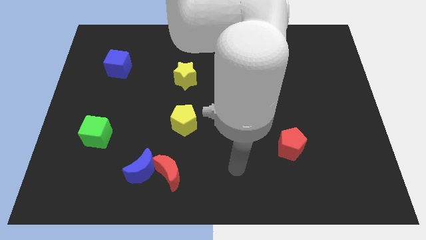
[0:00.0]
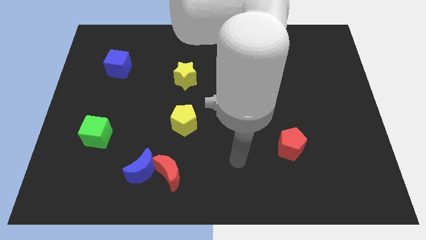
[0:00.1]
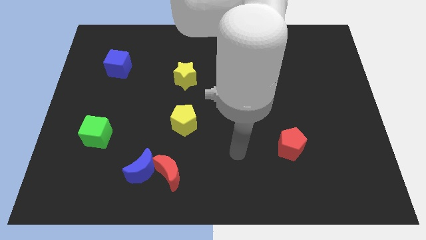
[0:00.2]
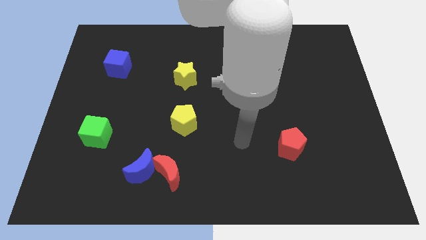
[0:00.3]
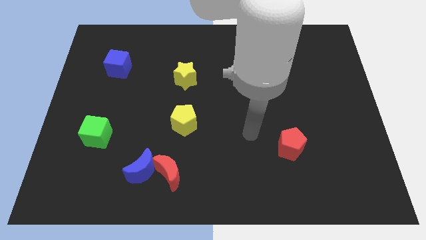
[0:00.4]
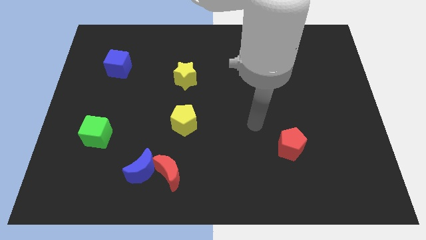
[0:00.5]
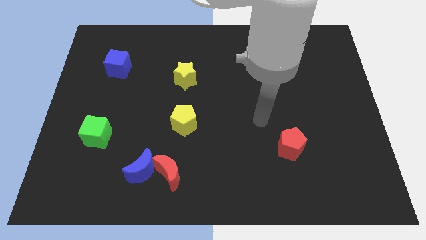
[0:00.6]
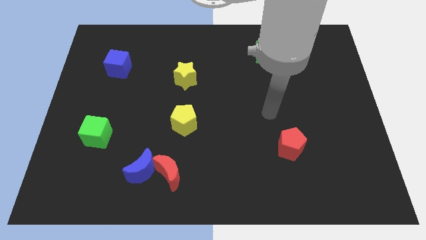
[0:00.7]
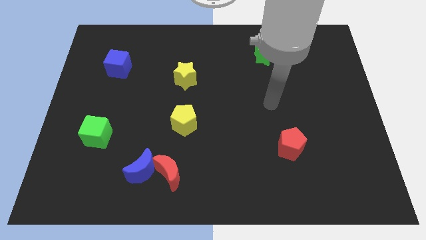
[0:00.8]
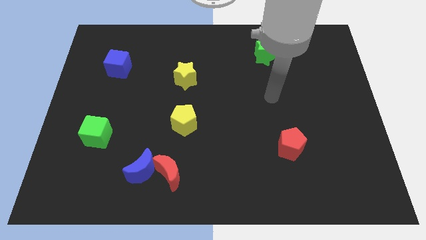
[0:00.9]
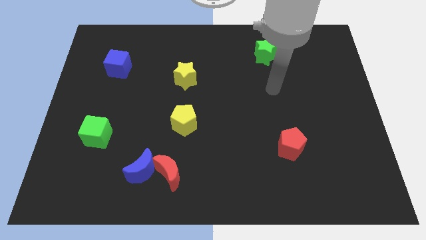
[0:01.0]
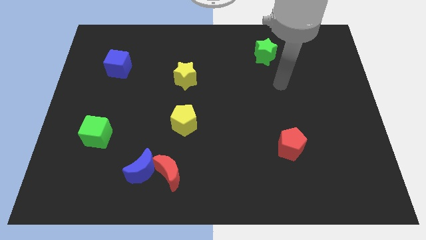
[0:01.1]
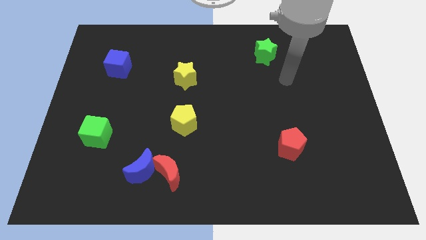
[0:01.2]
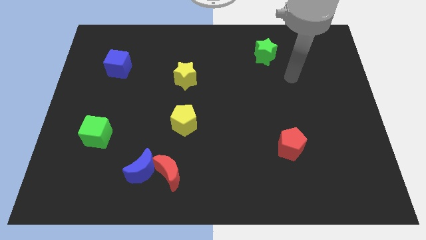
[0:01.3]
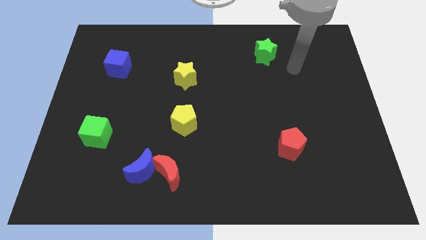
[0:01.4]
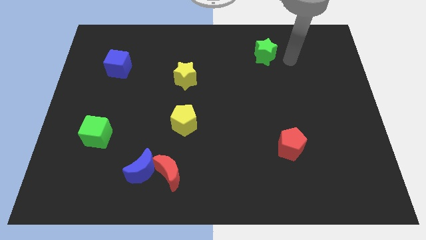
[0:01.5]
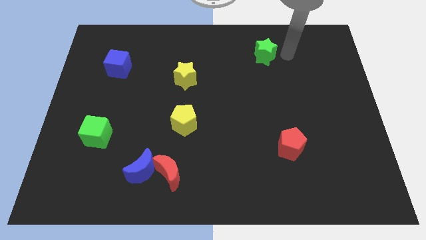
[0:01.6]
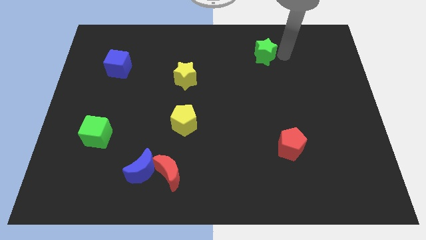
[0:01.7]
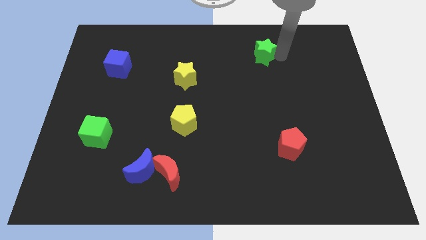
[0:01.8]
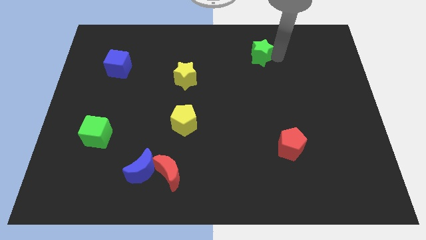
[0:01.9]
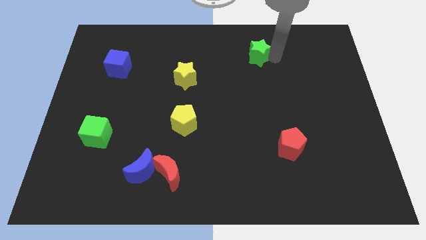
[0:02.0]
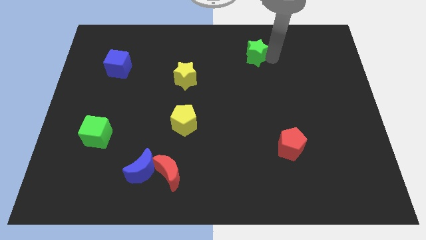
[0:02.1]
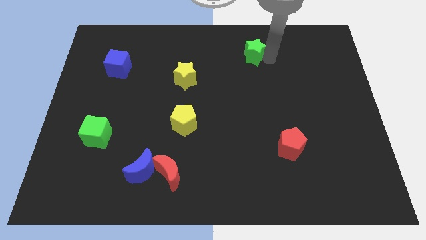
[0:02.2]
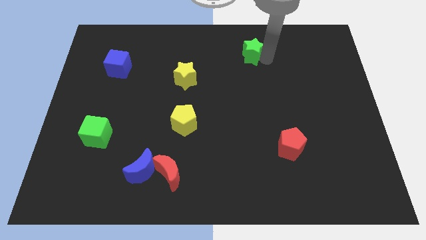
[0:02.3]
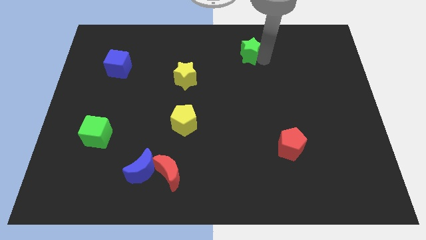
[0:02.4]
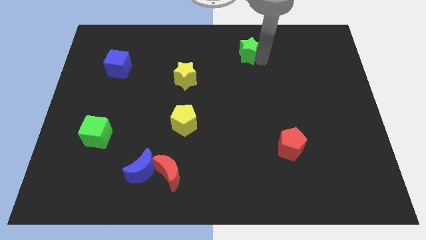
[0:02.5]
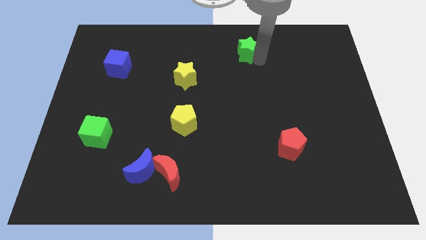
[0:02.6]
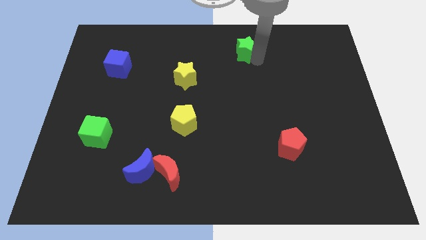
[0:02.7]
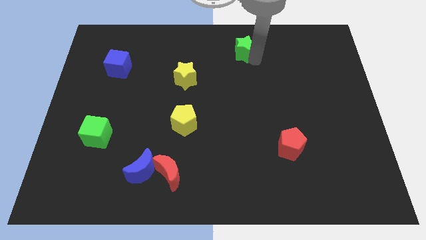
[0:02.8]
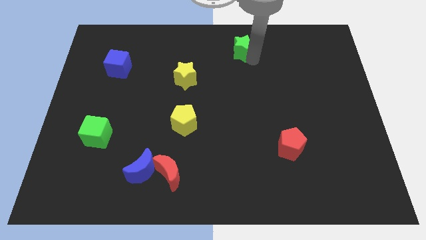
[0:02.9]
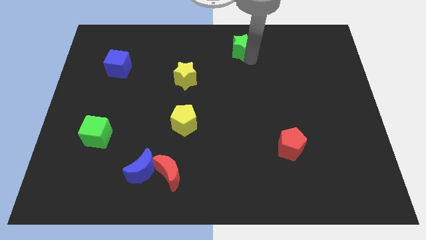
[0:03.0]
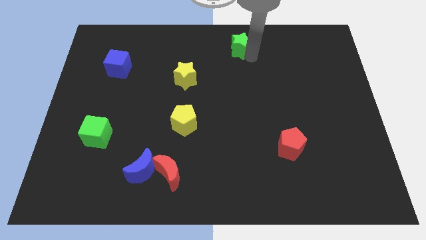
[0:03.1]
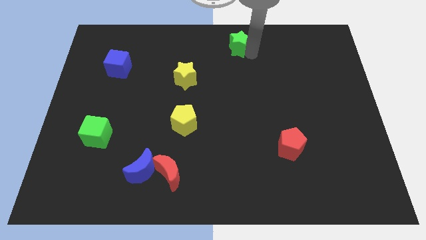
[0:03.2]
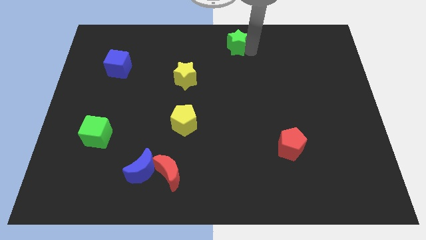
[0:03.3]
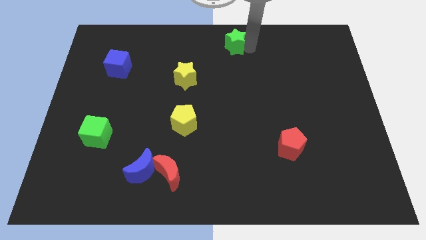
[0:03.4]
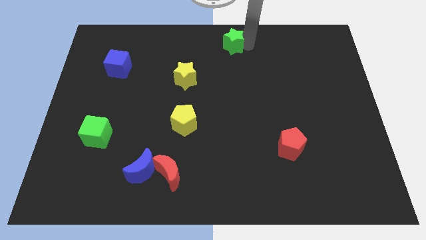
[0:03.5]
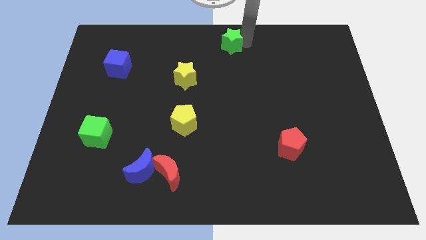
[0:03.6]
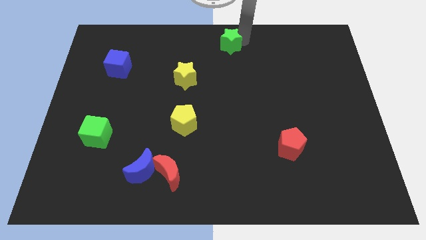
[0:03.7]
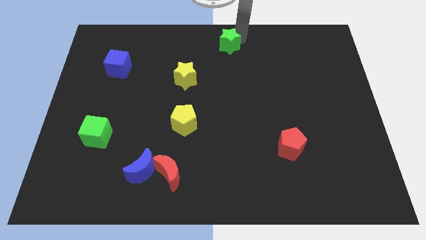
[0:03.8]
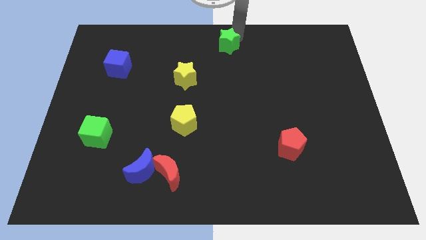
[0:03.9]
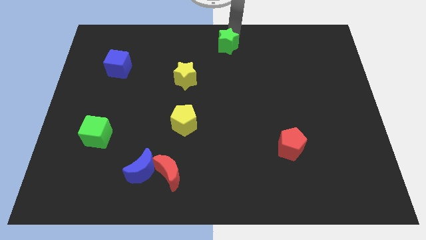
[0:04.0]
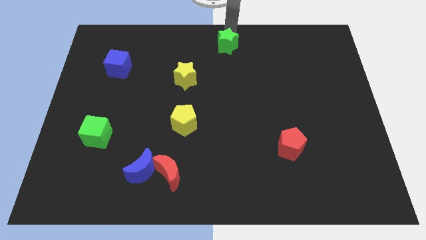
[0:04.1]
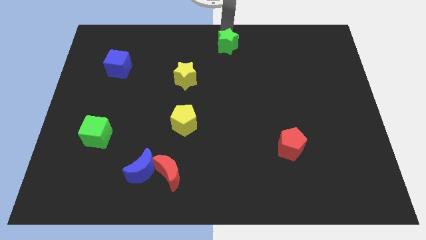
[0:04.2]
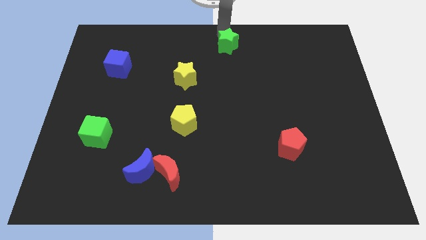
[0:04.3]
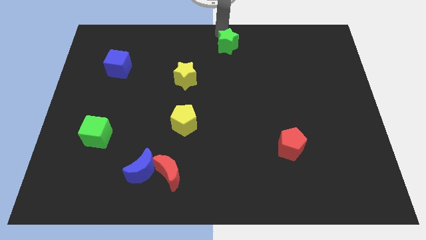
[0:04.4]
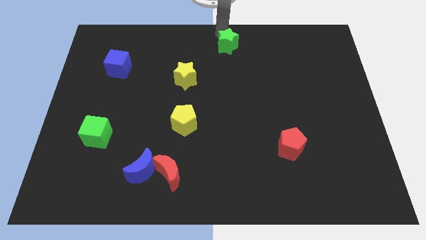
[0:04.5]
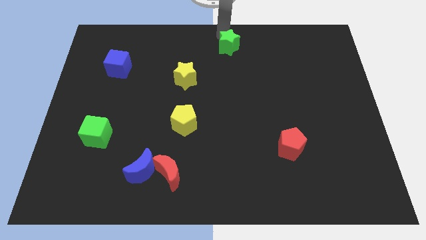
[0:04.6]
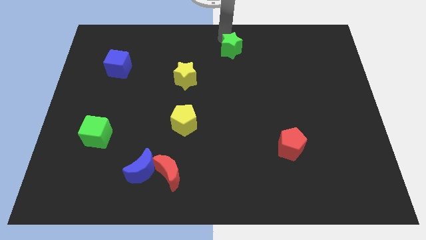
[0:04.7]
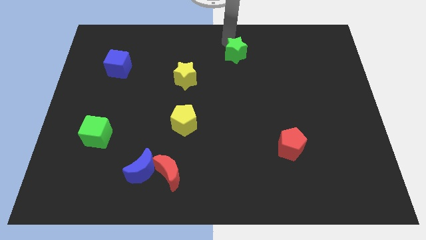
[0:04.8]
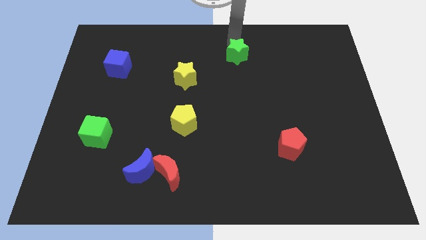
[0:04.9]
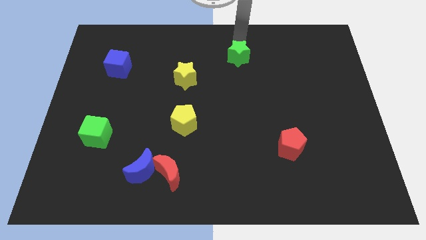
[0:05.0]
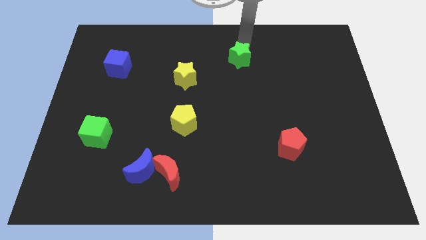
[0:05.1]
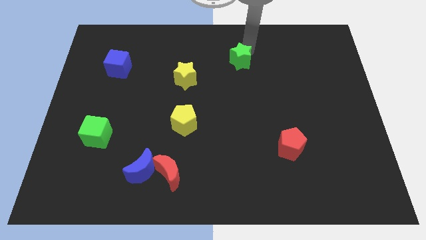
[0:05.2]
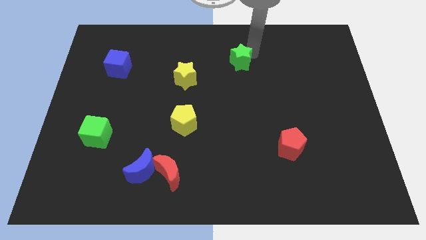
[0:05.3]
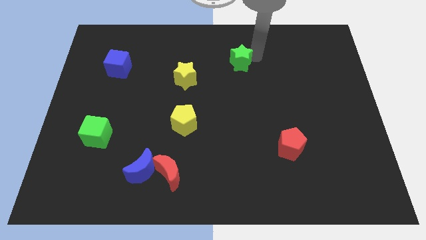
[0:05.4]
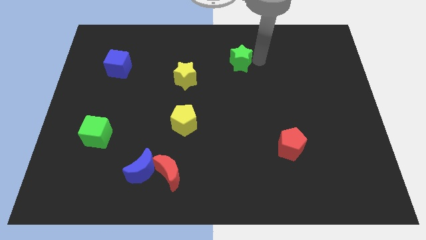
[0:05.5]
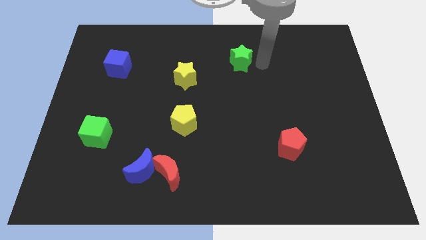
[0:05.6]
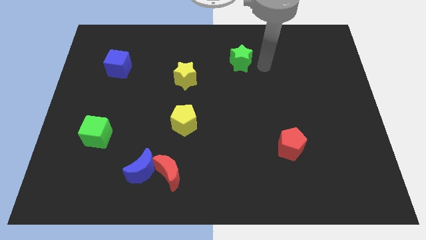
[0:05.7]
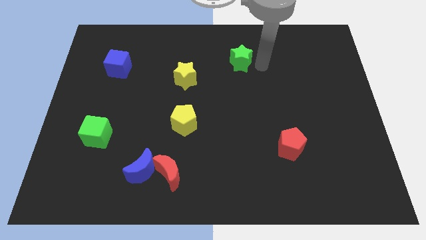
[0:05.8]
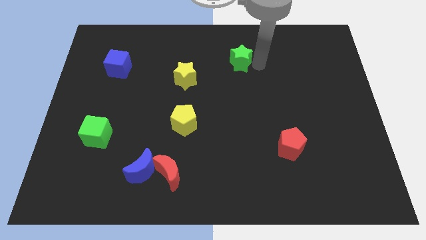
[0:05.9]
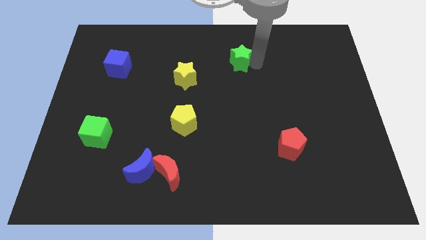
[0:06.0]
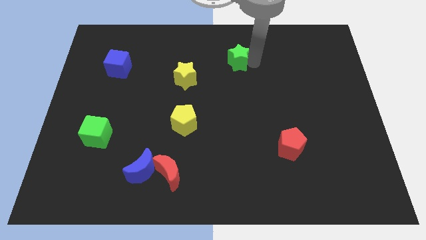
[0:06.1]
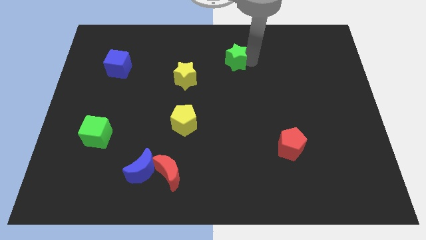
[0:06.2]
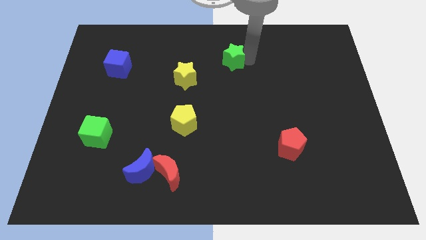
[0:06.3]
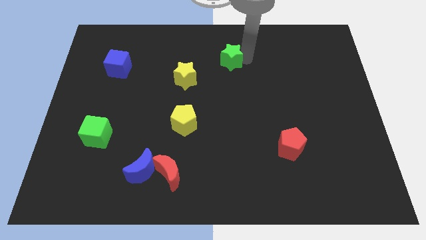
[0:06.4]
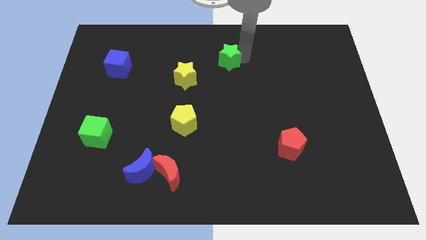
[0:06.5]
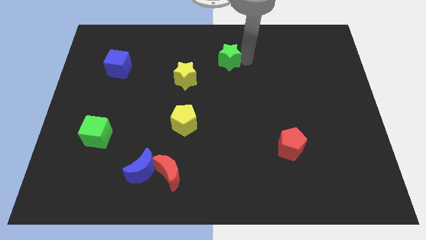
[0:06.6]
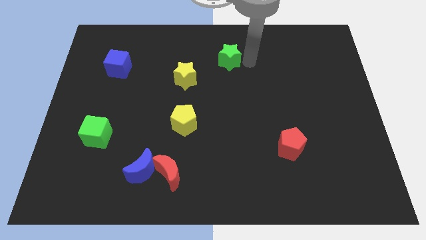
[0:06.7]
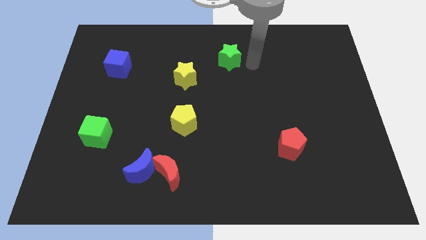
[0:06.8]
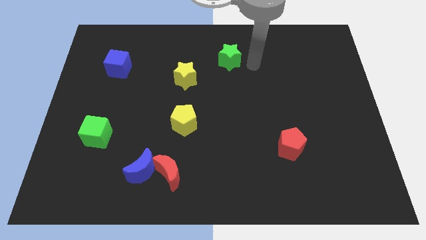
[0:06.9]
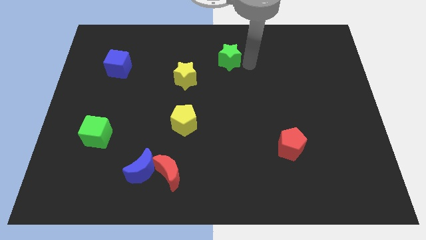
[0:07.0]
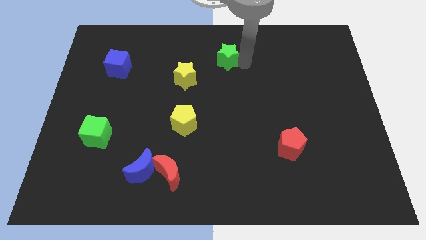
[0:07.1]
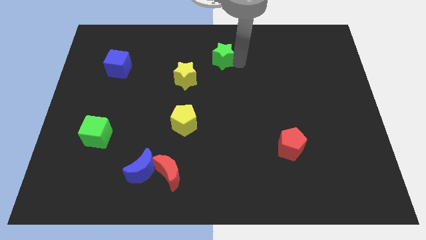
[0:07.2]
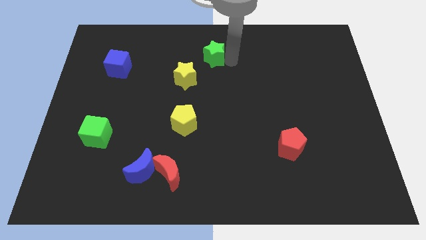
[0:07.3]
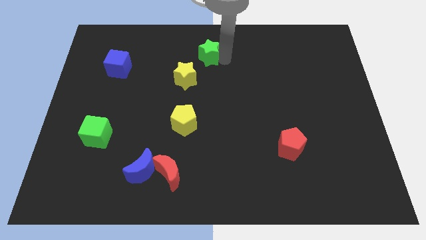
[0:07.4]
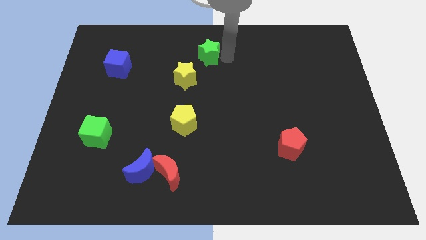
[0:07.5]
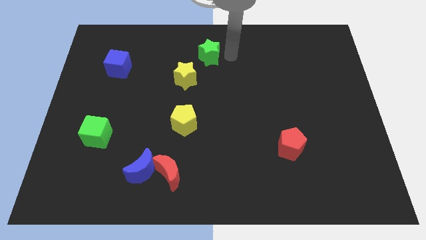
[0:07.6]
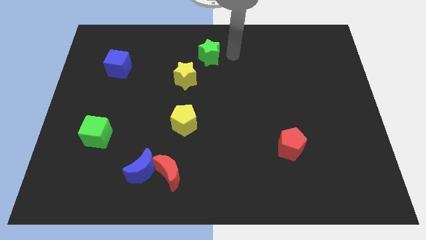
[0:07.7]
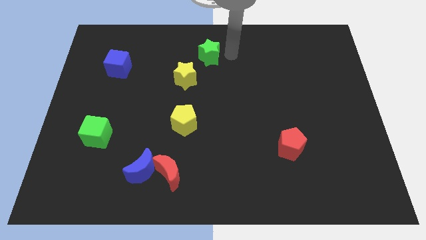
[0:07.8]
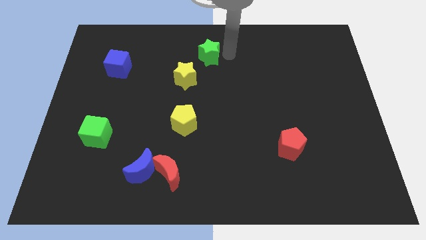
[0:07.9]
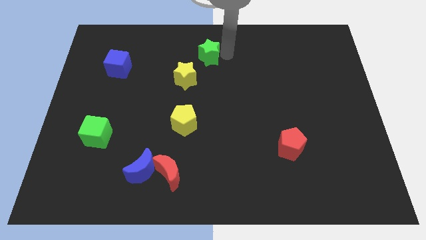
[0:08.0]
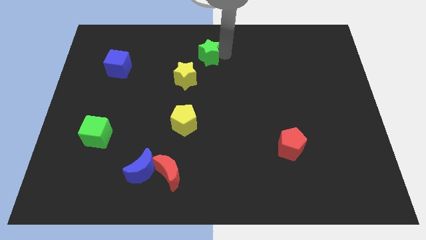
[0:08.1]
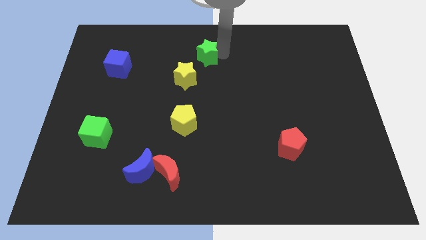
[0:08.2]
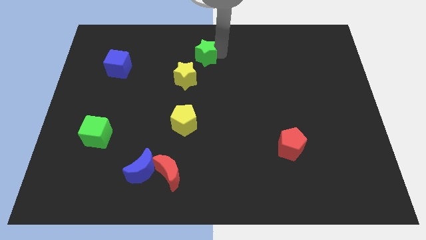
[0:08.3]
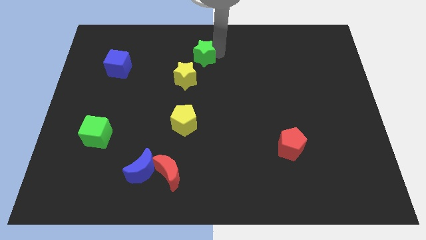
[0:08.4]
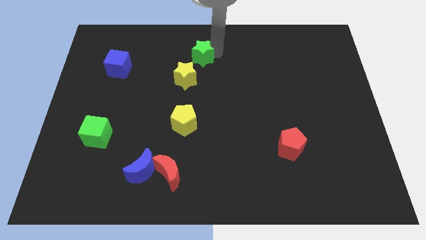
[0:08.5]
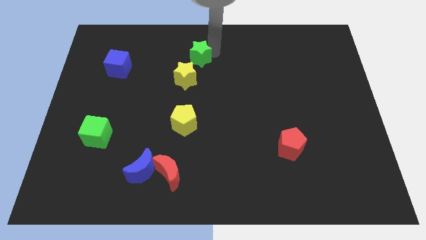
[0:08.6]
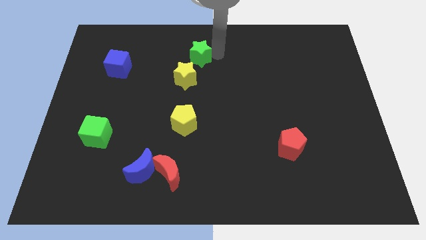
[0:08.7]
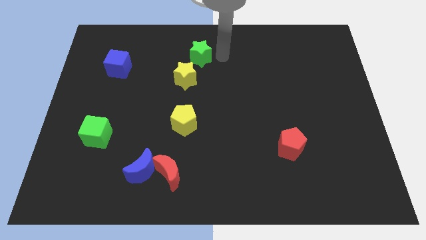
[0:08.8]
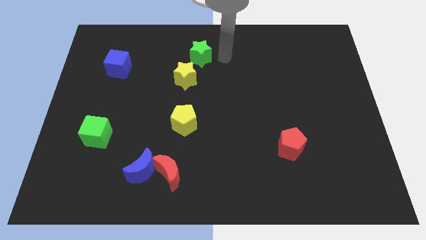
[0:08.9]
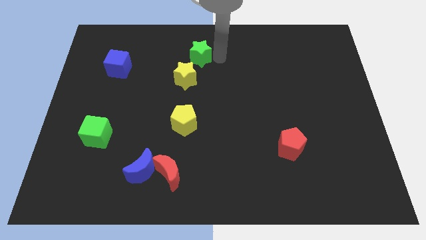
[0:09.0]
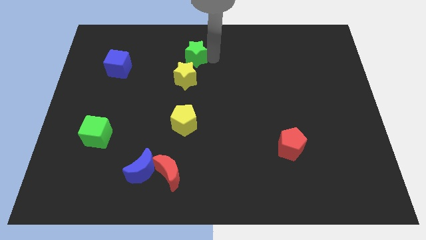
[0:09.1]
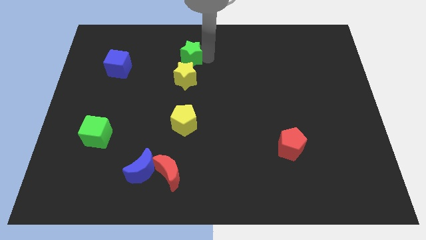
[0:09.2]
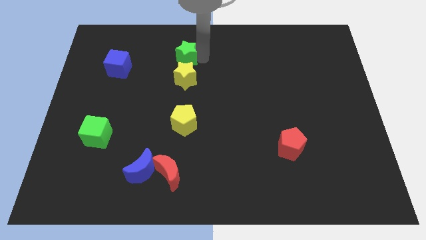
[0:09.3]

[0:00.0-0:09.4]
move the green star left
